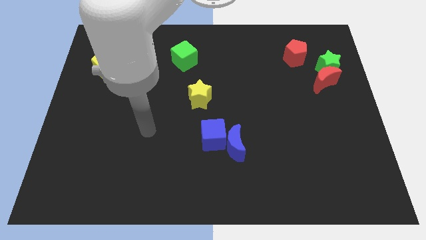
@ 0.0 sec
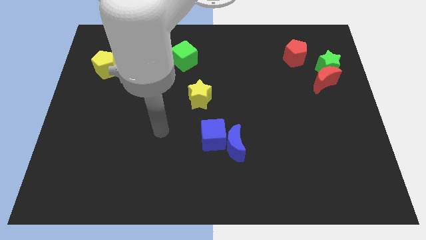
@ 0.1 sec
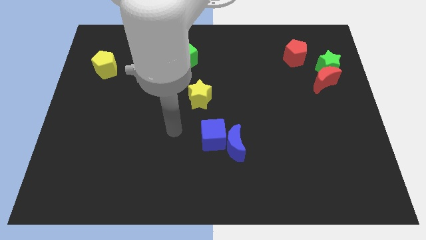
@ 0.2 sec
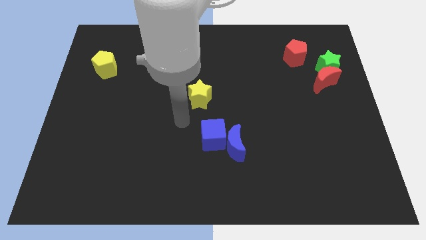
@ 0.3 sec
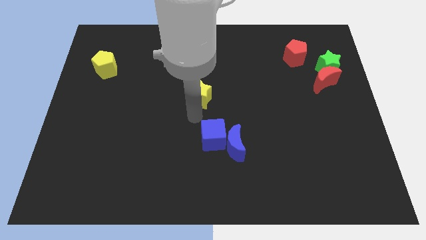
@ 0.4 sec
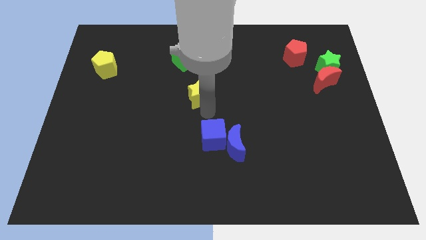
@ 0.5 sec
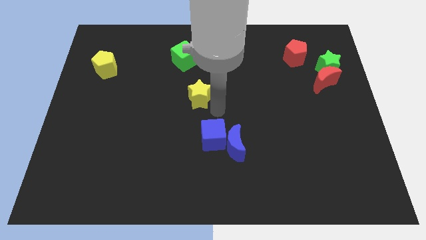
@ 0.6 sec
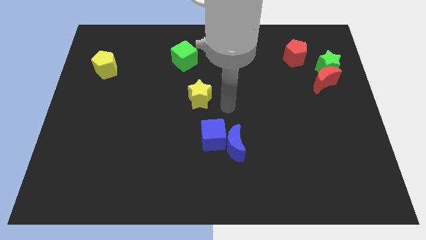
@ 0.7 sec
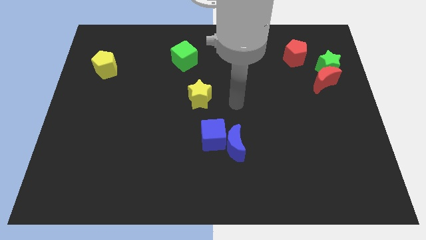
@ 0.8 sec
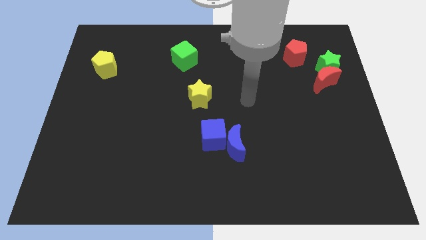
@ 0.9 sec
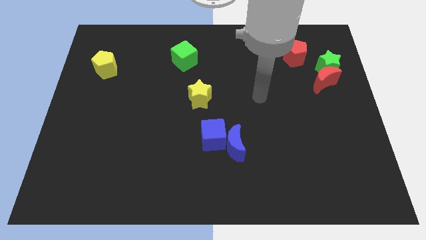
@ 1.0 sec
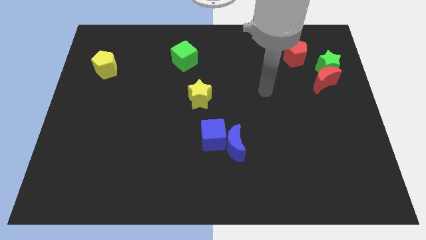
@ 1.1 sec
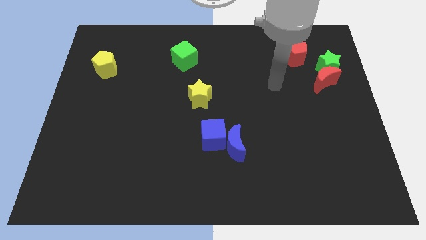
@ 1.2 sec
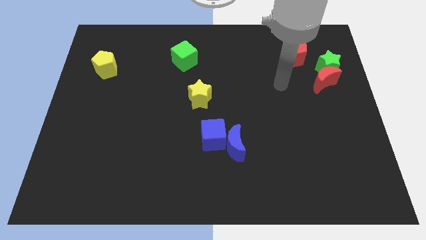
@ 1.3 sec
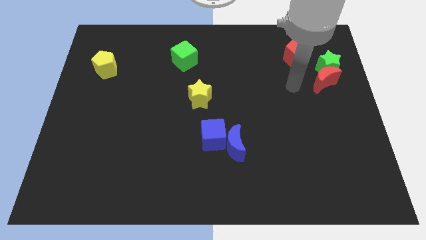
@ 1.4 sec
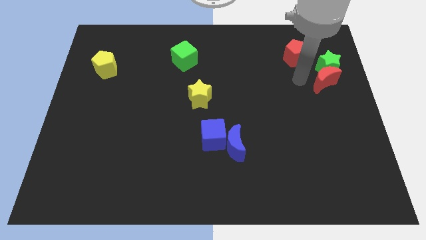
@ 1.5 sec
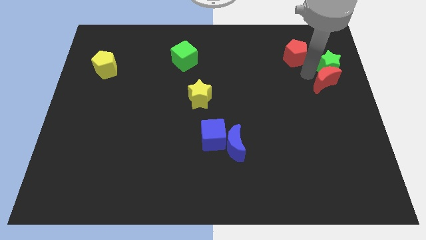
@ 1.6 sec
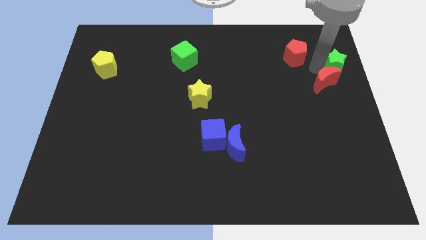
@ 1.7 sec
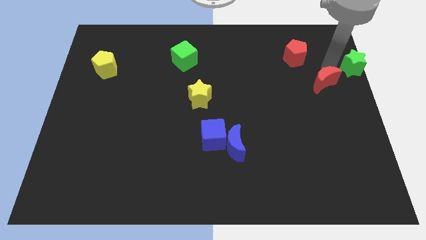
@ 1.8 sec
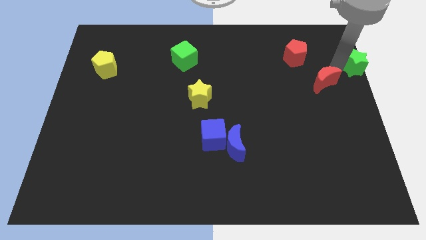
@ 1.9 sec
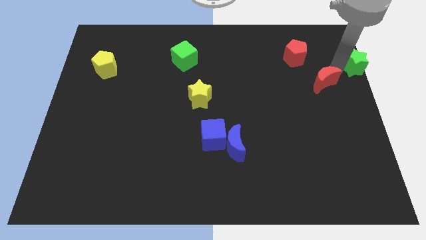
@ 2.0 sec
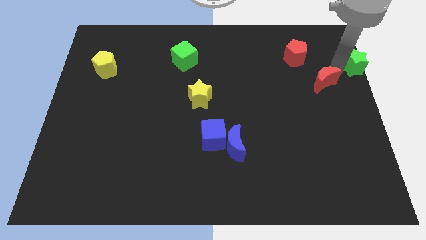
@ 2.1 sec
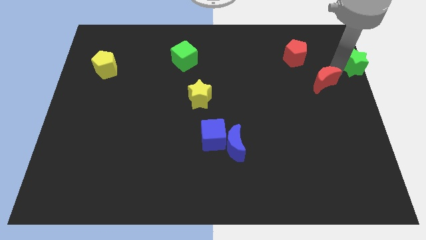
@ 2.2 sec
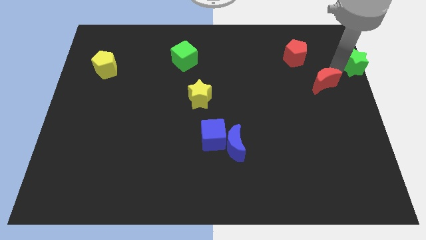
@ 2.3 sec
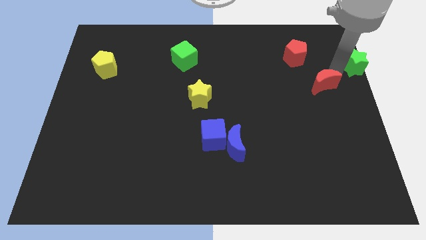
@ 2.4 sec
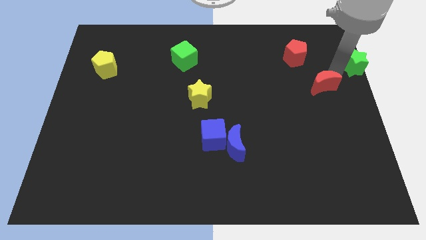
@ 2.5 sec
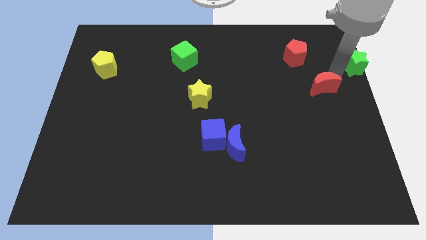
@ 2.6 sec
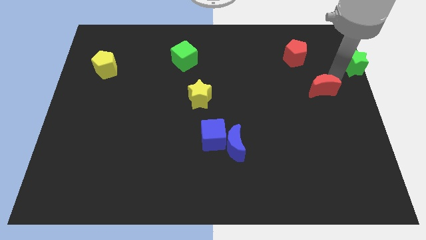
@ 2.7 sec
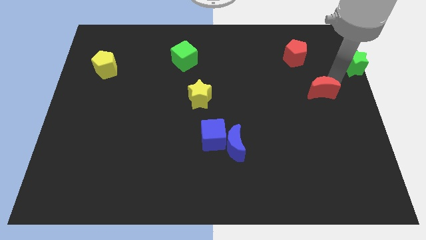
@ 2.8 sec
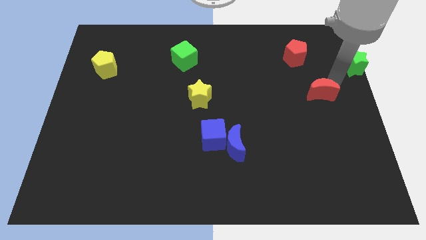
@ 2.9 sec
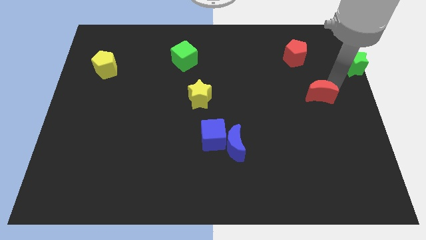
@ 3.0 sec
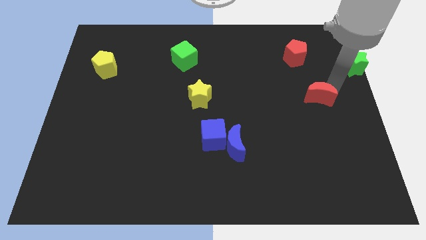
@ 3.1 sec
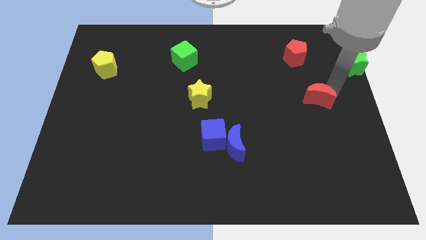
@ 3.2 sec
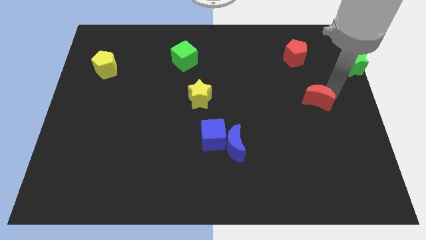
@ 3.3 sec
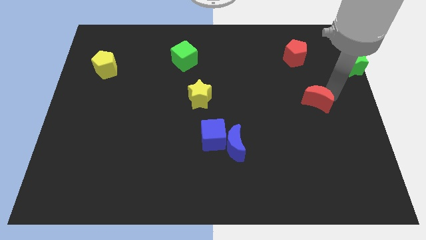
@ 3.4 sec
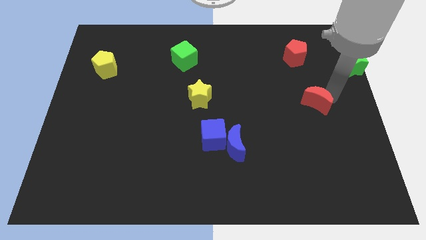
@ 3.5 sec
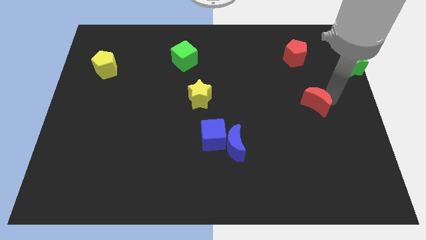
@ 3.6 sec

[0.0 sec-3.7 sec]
push the red moon diagonally downwards and to the left a little

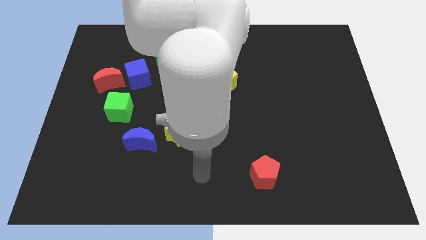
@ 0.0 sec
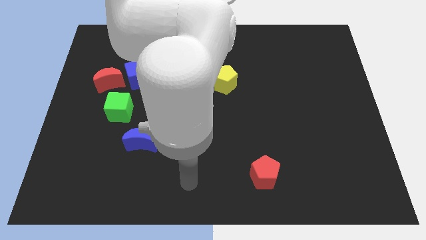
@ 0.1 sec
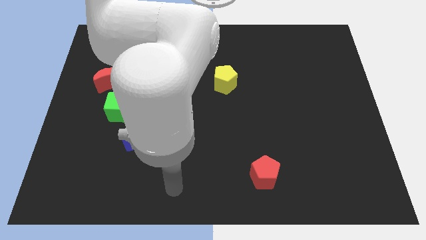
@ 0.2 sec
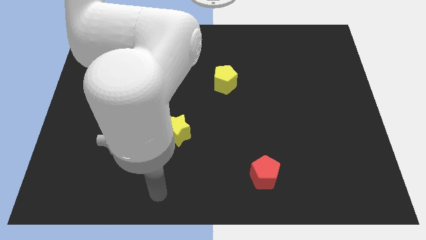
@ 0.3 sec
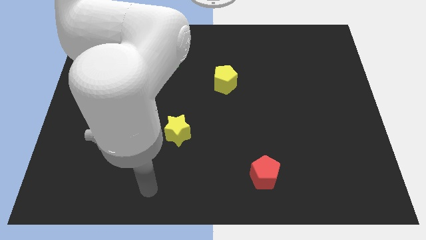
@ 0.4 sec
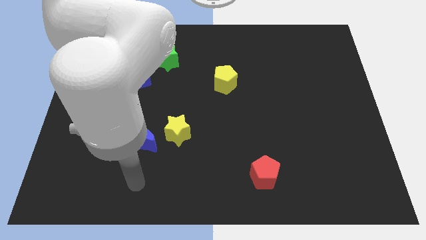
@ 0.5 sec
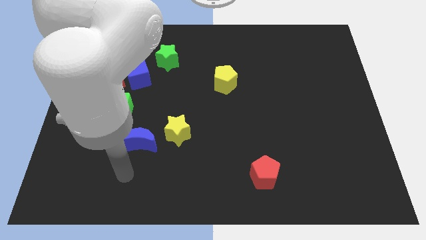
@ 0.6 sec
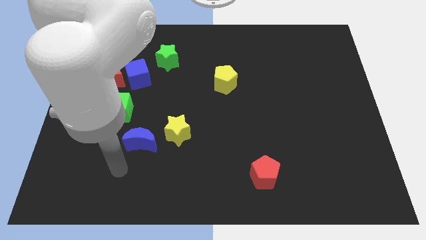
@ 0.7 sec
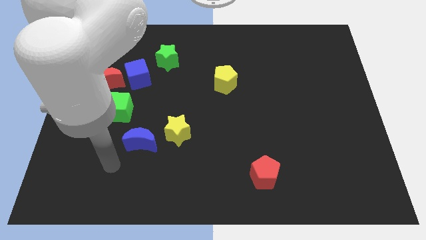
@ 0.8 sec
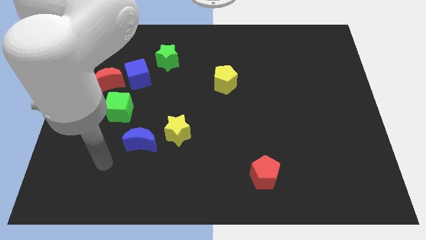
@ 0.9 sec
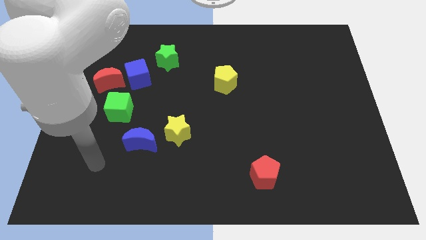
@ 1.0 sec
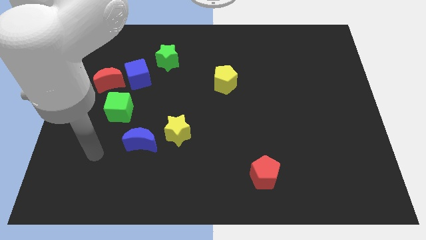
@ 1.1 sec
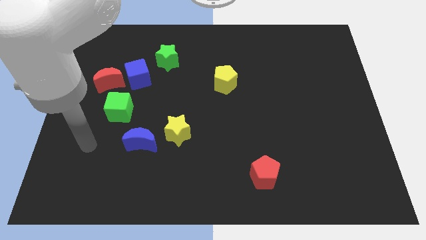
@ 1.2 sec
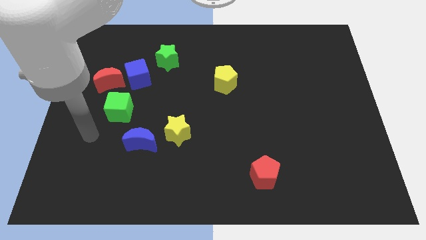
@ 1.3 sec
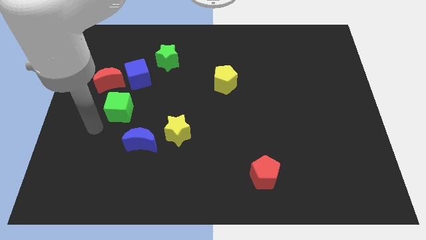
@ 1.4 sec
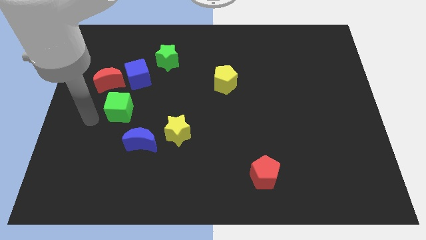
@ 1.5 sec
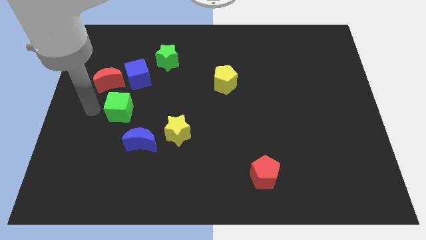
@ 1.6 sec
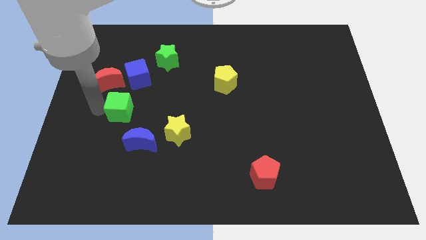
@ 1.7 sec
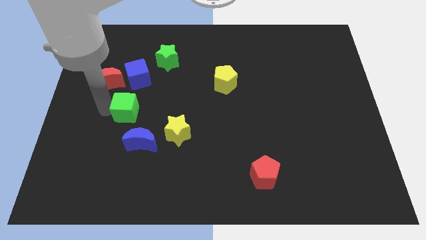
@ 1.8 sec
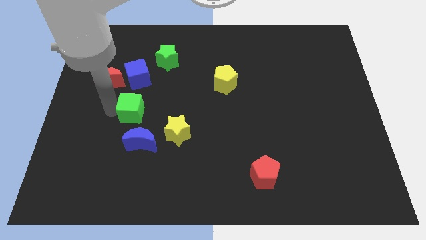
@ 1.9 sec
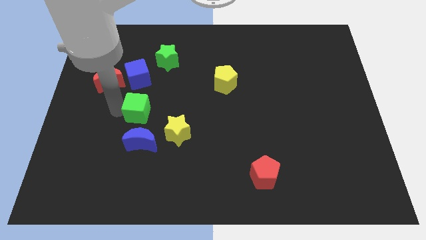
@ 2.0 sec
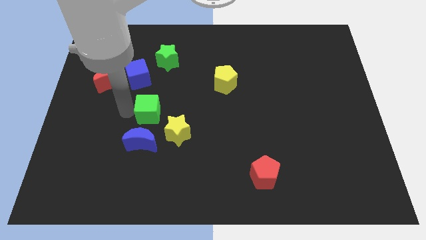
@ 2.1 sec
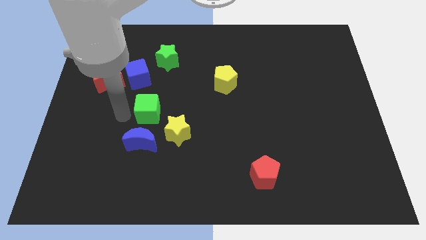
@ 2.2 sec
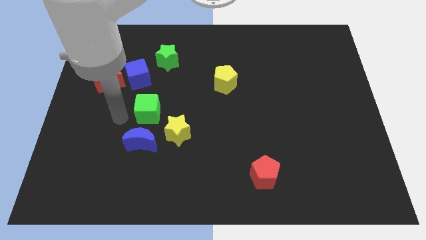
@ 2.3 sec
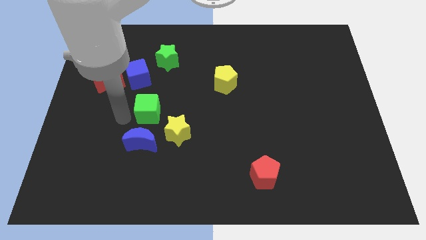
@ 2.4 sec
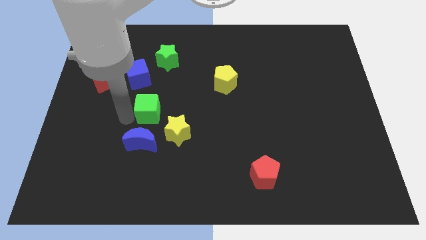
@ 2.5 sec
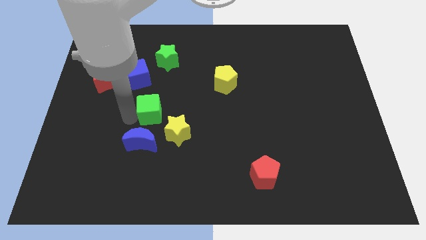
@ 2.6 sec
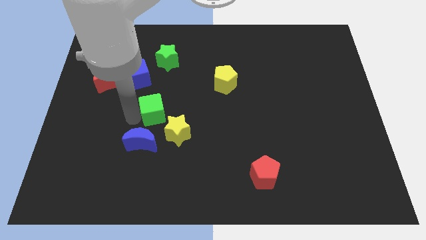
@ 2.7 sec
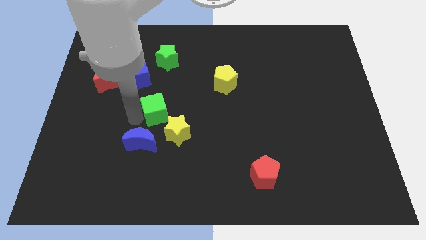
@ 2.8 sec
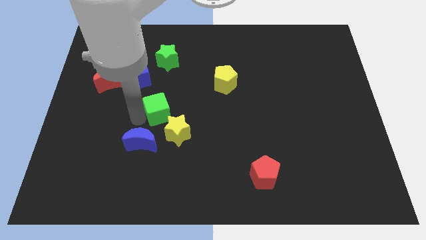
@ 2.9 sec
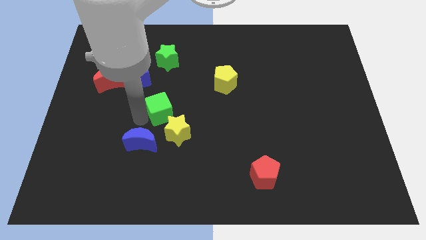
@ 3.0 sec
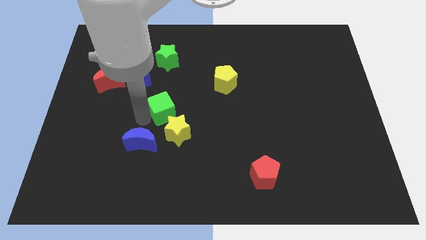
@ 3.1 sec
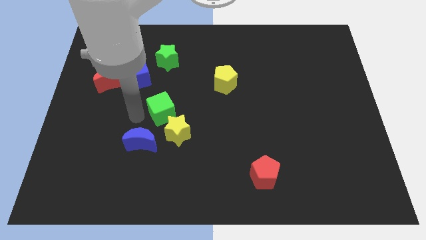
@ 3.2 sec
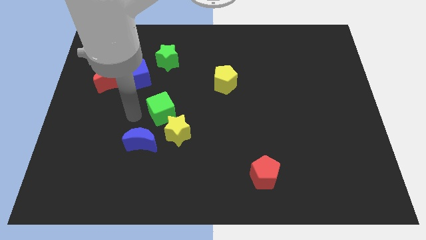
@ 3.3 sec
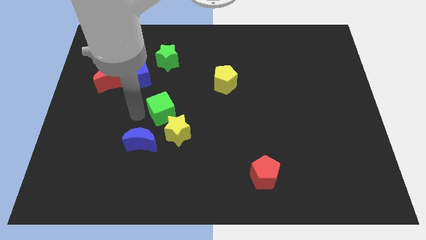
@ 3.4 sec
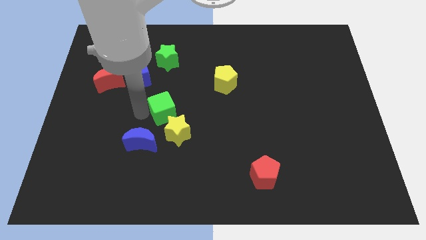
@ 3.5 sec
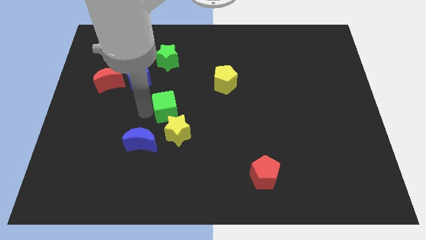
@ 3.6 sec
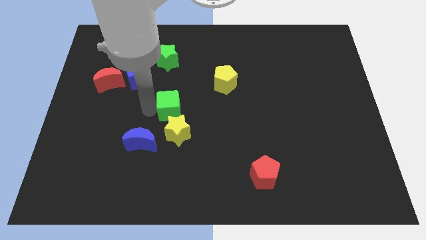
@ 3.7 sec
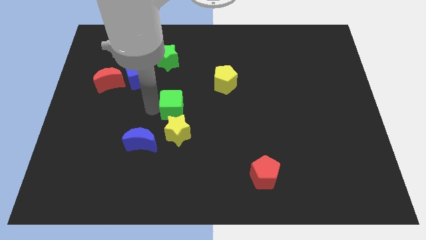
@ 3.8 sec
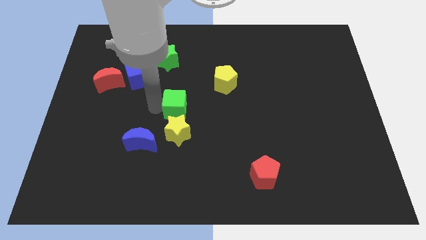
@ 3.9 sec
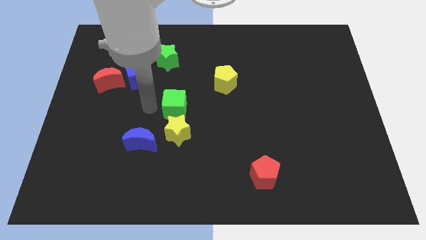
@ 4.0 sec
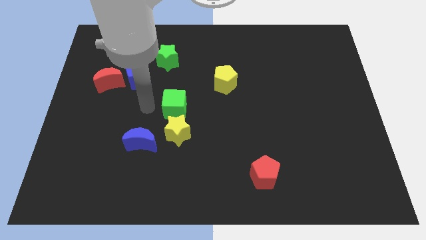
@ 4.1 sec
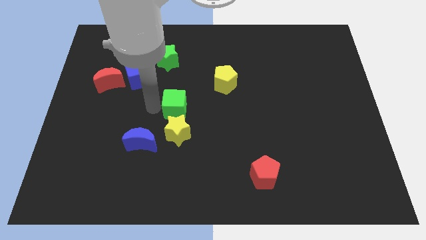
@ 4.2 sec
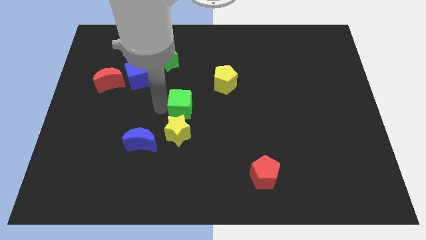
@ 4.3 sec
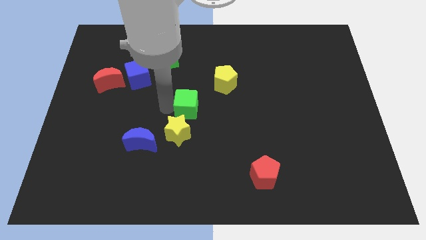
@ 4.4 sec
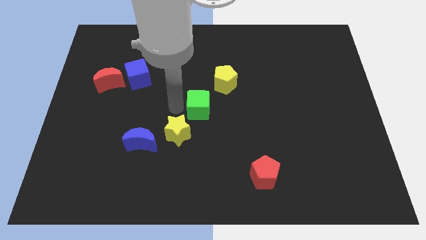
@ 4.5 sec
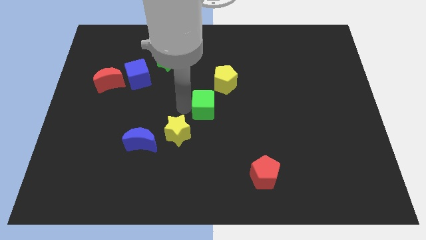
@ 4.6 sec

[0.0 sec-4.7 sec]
slide the green cube right
